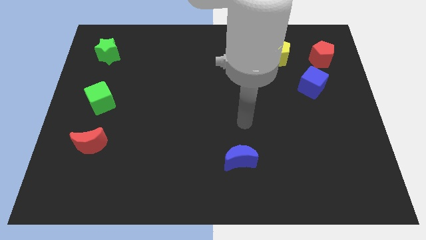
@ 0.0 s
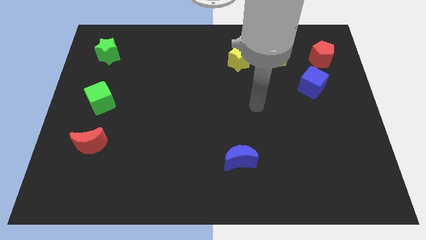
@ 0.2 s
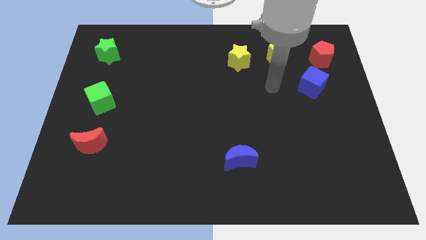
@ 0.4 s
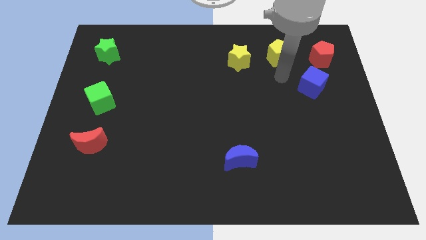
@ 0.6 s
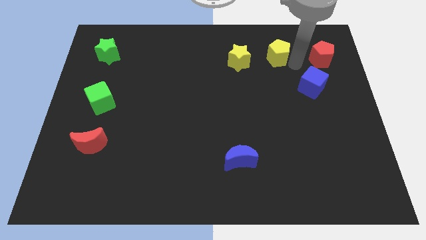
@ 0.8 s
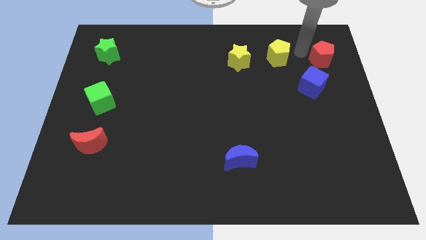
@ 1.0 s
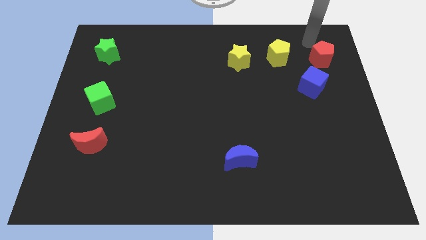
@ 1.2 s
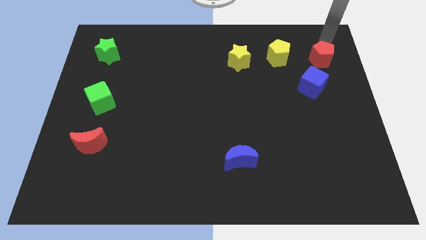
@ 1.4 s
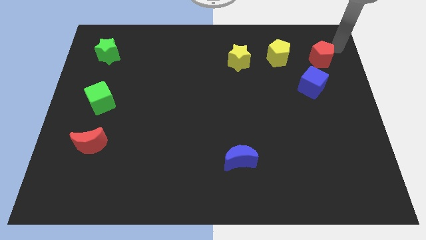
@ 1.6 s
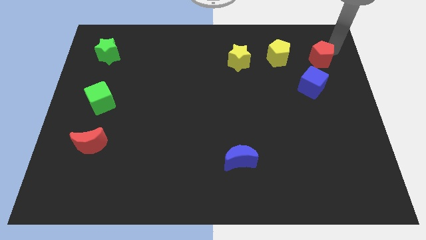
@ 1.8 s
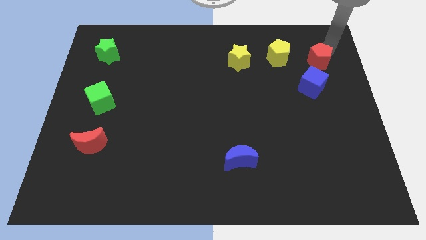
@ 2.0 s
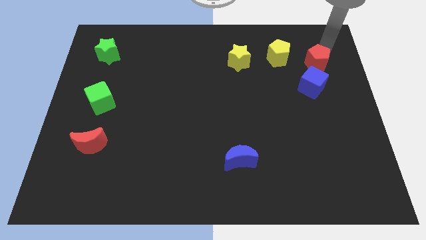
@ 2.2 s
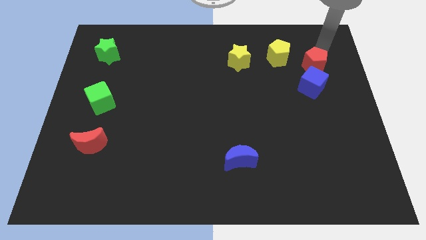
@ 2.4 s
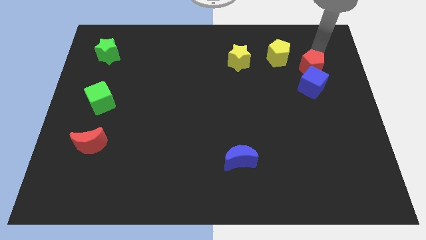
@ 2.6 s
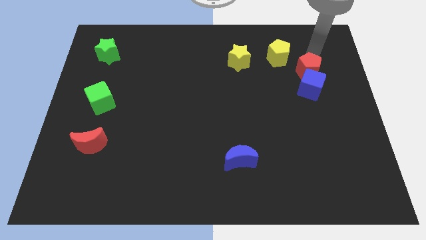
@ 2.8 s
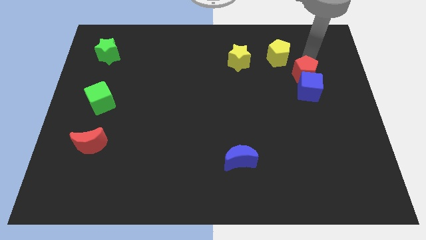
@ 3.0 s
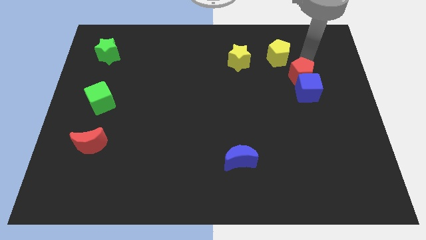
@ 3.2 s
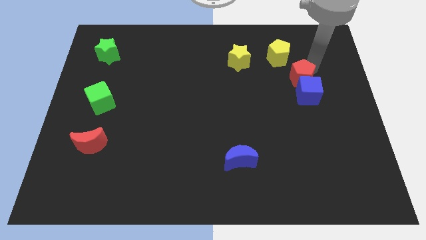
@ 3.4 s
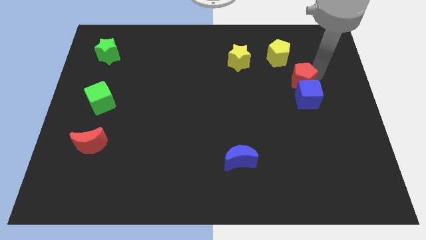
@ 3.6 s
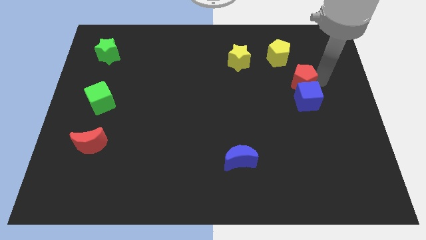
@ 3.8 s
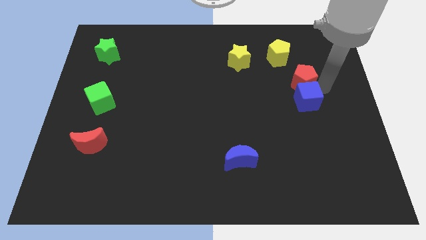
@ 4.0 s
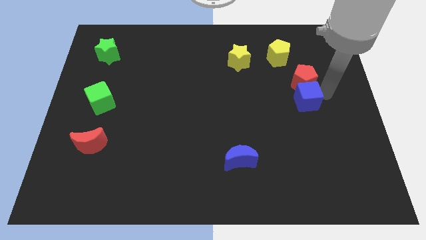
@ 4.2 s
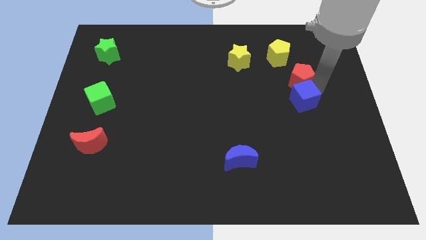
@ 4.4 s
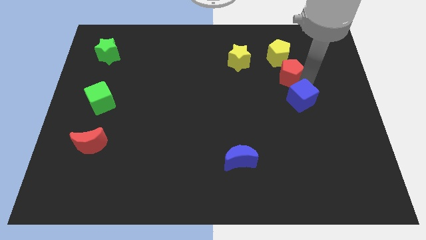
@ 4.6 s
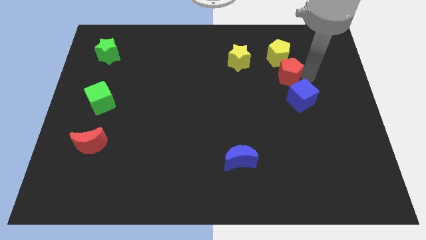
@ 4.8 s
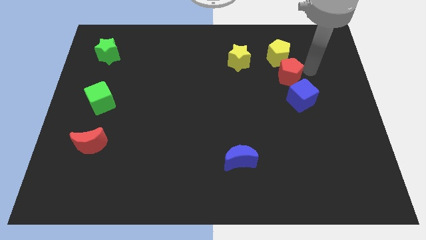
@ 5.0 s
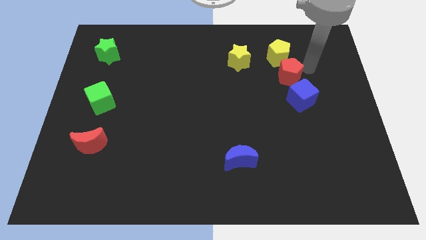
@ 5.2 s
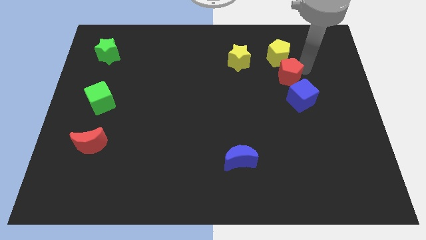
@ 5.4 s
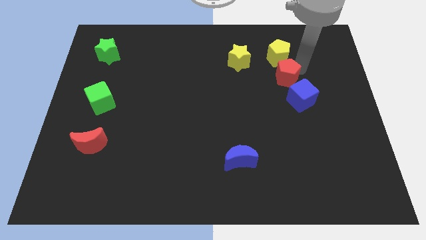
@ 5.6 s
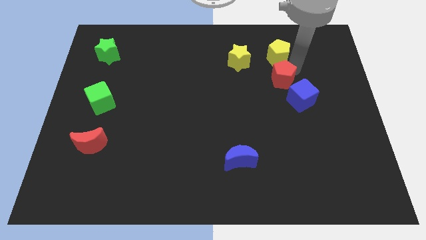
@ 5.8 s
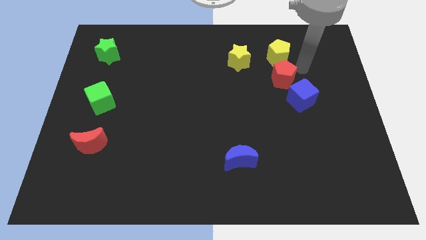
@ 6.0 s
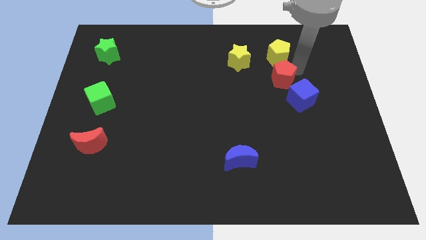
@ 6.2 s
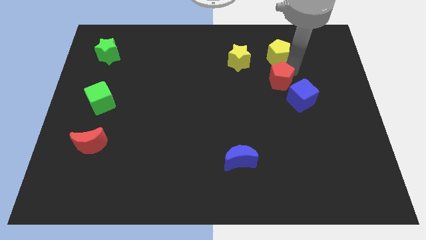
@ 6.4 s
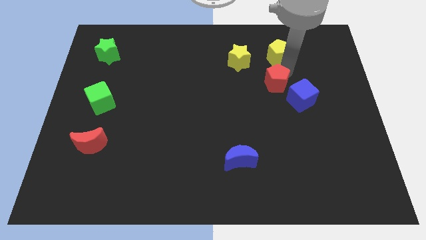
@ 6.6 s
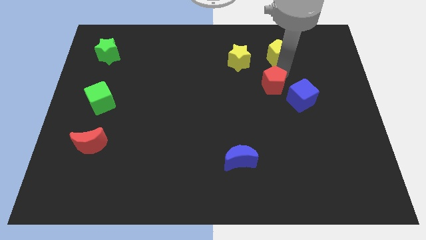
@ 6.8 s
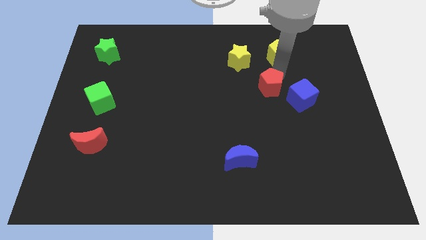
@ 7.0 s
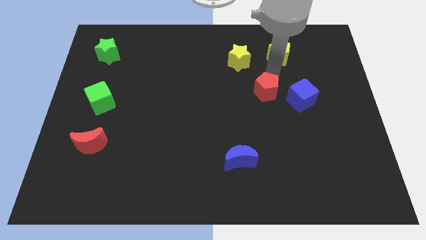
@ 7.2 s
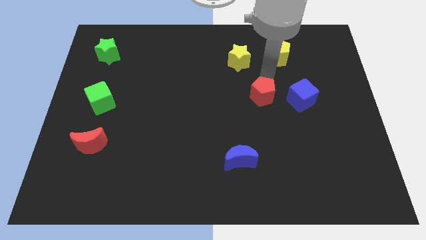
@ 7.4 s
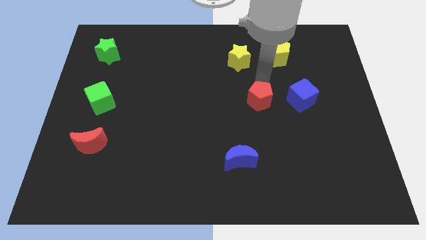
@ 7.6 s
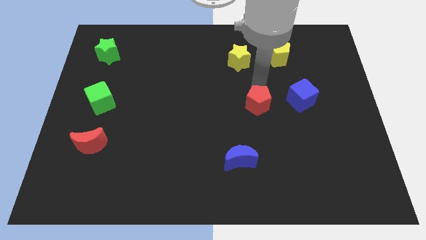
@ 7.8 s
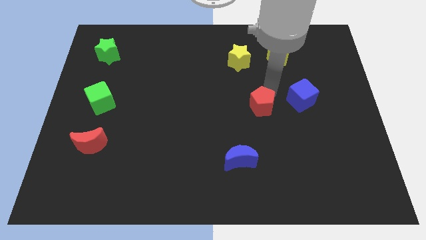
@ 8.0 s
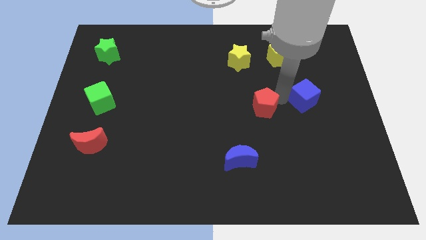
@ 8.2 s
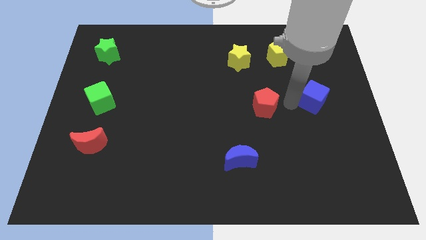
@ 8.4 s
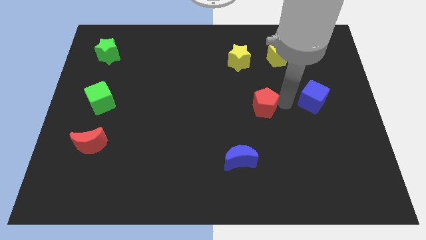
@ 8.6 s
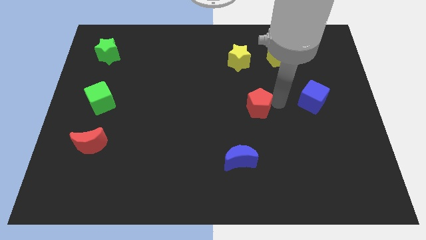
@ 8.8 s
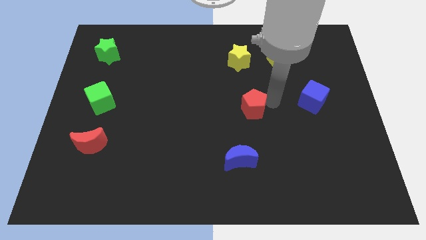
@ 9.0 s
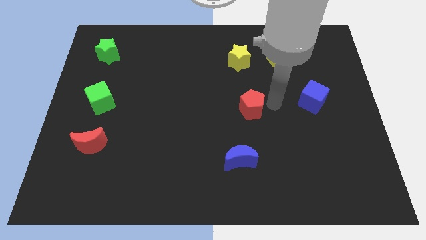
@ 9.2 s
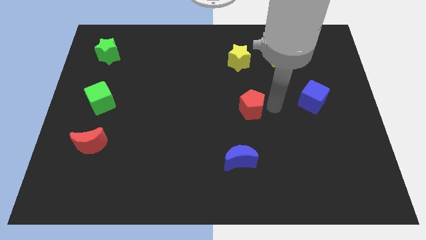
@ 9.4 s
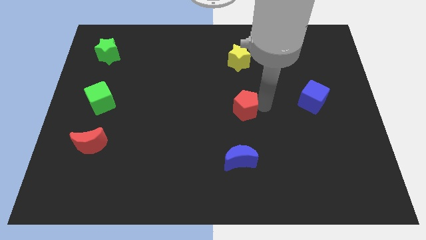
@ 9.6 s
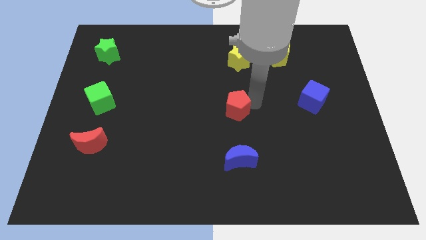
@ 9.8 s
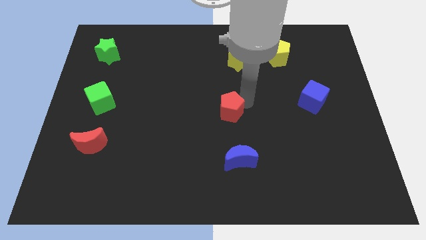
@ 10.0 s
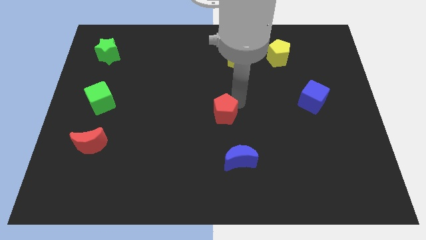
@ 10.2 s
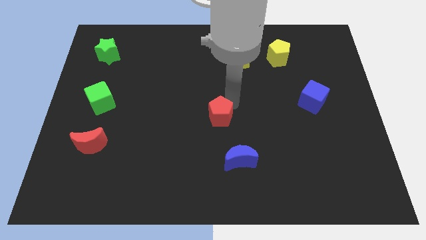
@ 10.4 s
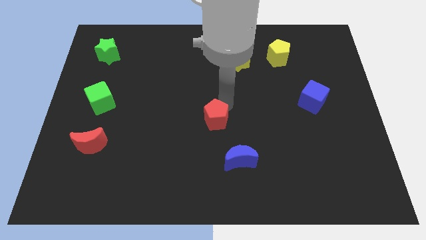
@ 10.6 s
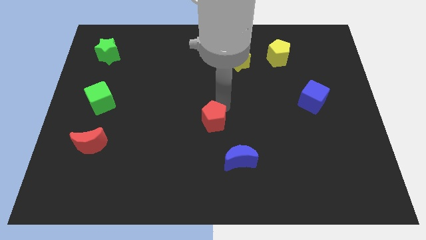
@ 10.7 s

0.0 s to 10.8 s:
move the red pentagon to the top left of the blue moon

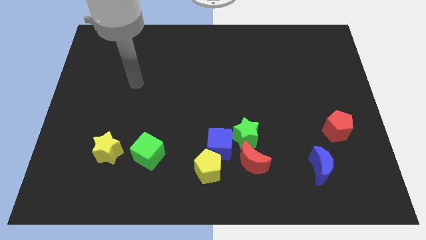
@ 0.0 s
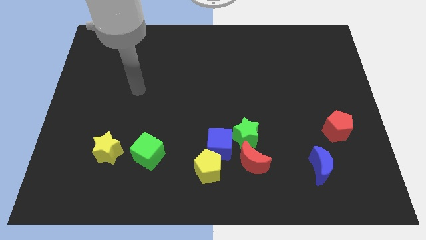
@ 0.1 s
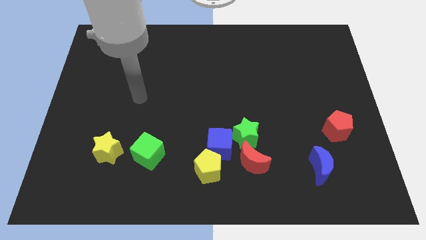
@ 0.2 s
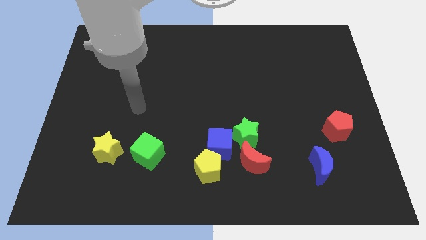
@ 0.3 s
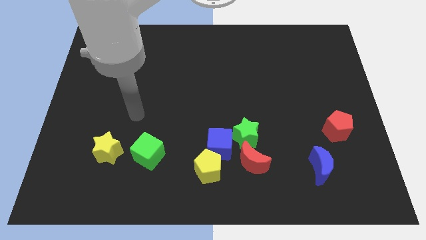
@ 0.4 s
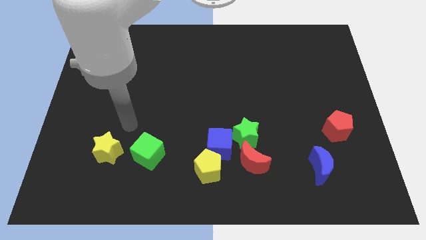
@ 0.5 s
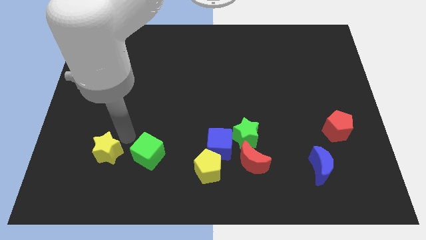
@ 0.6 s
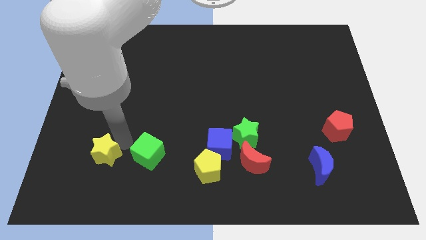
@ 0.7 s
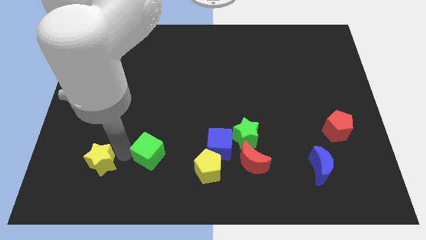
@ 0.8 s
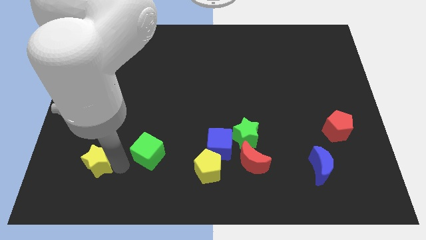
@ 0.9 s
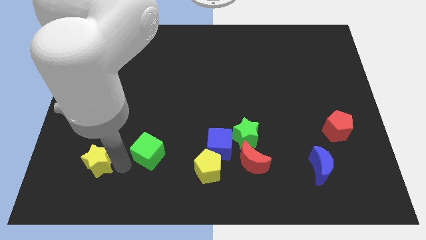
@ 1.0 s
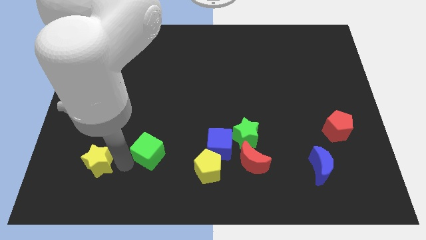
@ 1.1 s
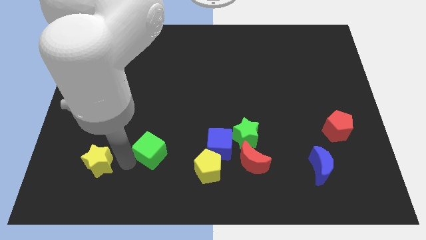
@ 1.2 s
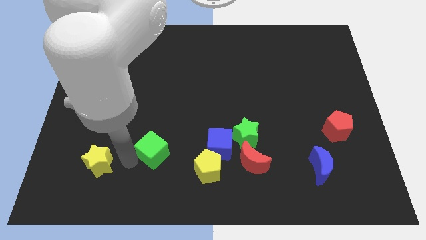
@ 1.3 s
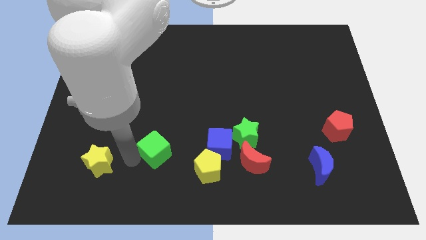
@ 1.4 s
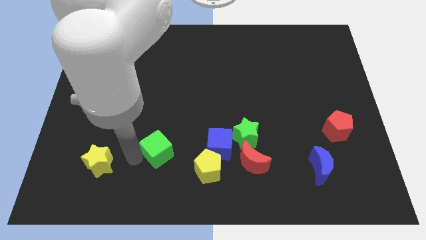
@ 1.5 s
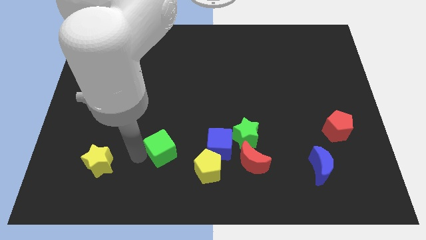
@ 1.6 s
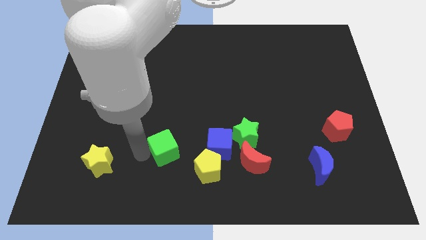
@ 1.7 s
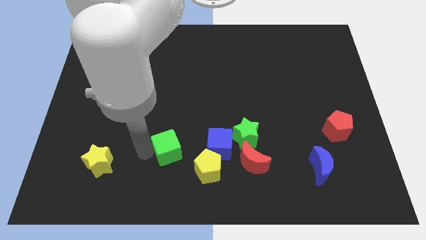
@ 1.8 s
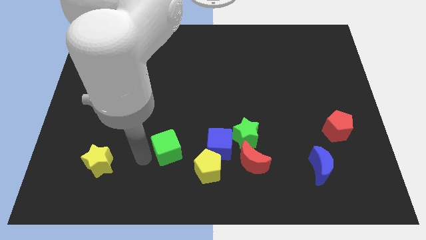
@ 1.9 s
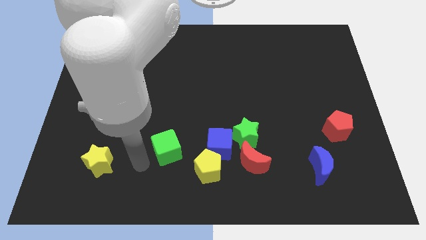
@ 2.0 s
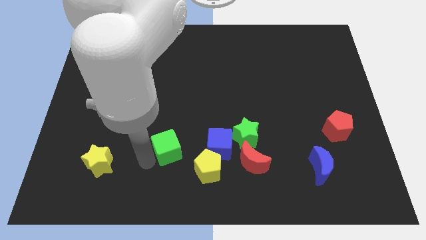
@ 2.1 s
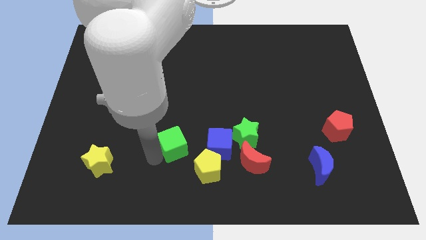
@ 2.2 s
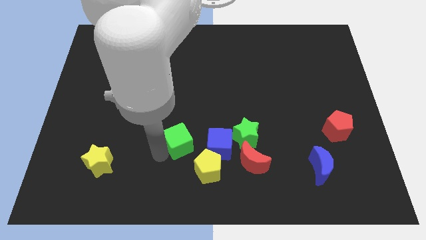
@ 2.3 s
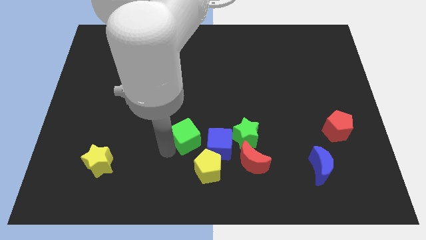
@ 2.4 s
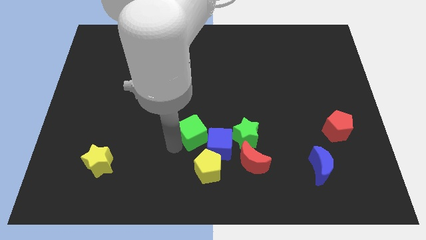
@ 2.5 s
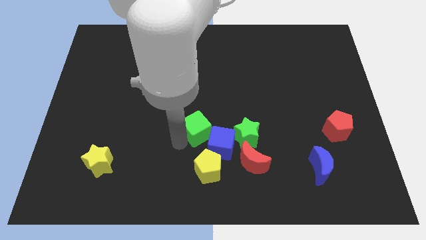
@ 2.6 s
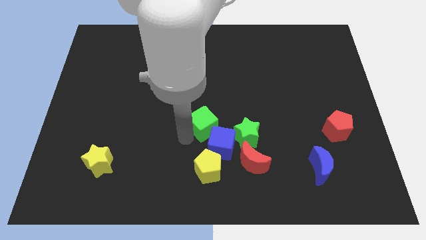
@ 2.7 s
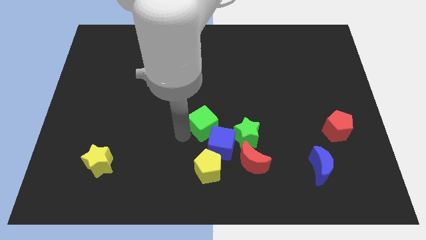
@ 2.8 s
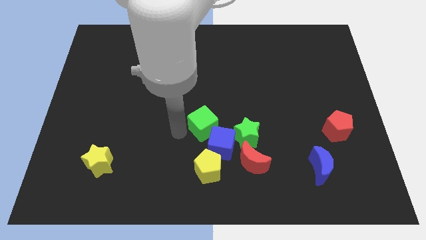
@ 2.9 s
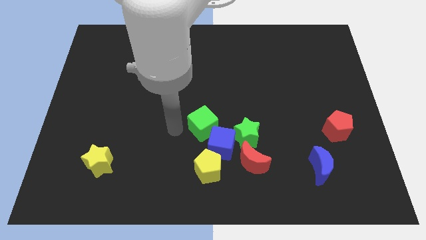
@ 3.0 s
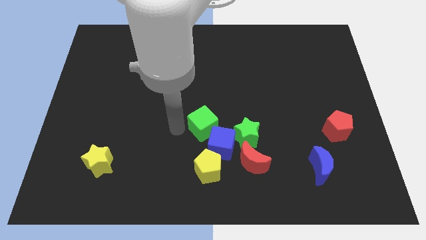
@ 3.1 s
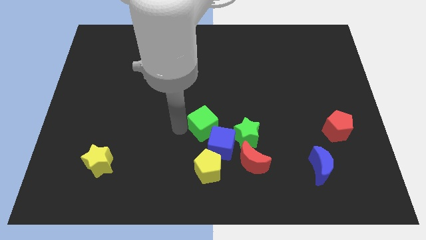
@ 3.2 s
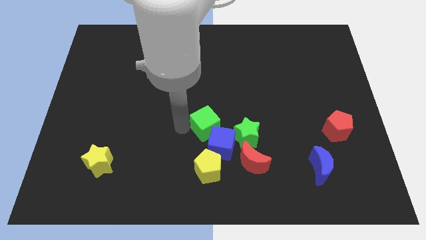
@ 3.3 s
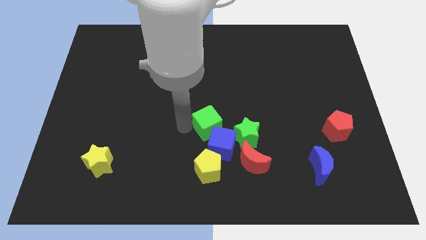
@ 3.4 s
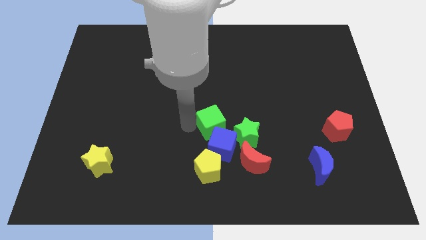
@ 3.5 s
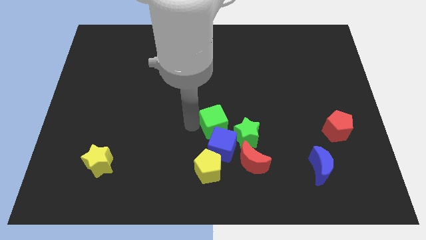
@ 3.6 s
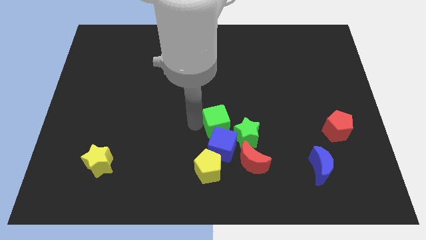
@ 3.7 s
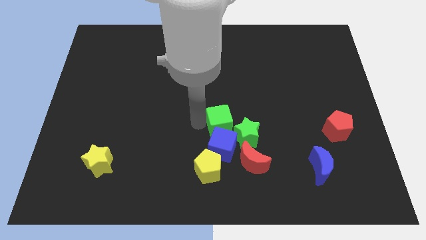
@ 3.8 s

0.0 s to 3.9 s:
push the green cube to the top right side of the blue cube
